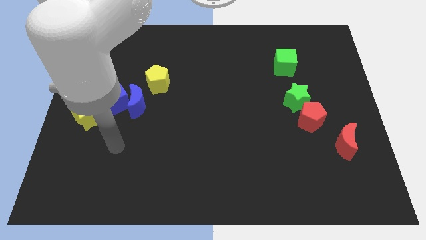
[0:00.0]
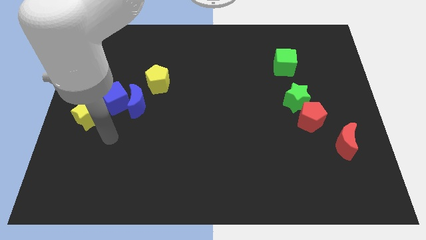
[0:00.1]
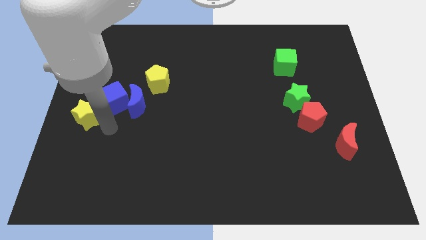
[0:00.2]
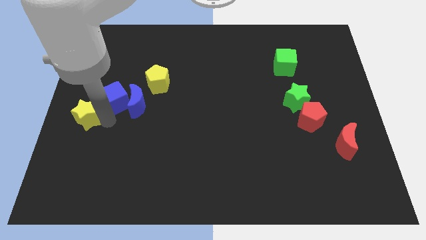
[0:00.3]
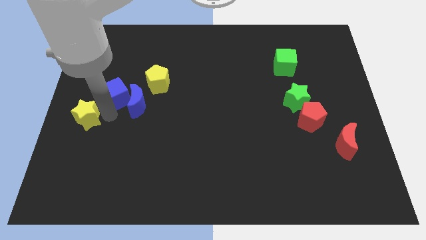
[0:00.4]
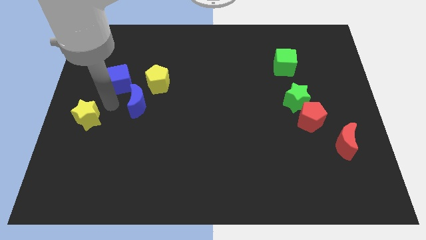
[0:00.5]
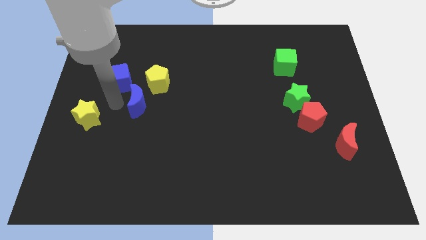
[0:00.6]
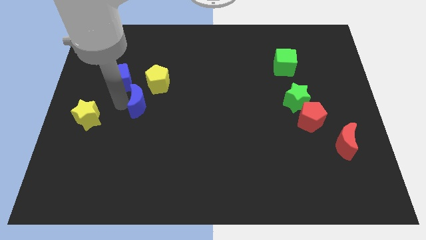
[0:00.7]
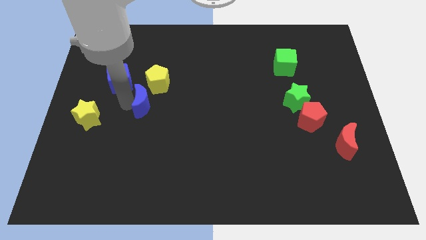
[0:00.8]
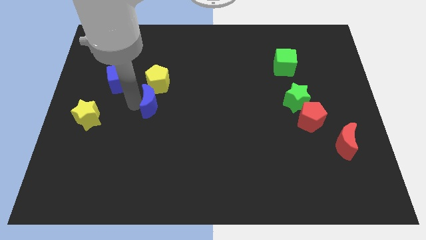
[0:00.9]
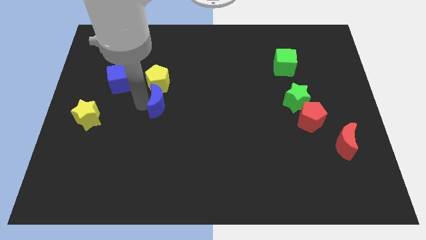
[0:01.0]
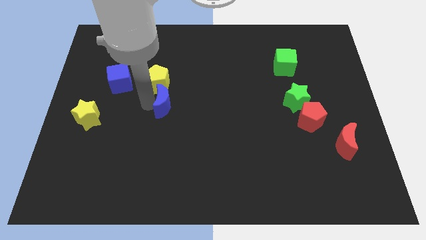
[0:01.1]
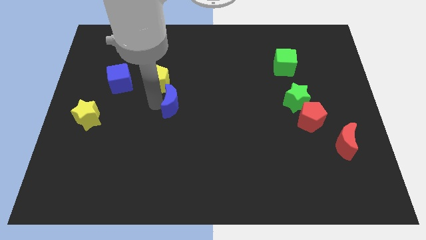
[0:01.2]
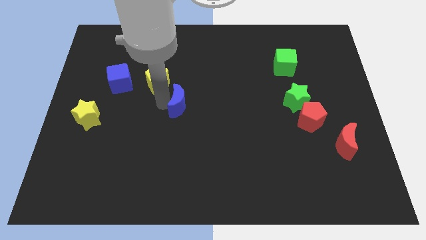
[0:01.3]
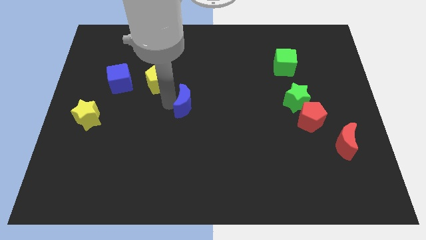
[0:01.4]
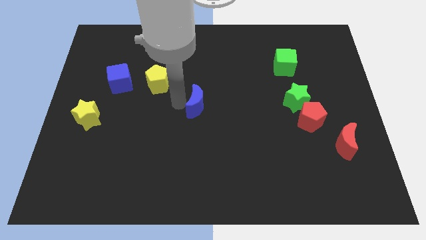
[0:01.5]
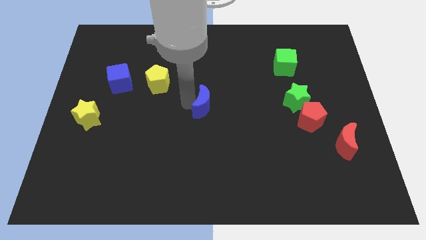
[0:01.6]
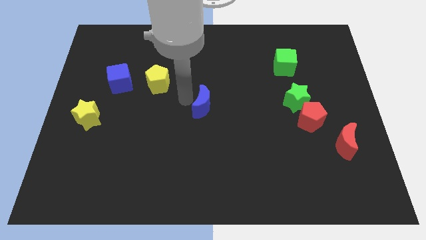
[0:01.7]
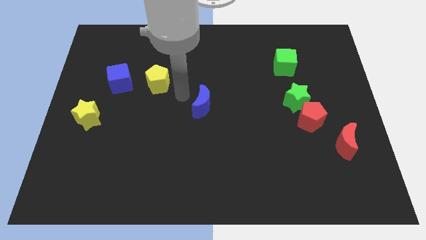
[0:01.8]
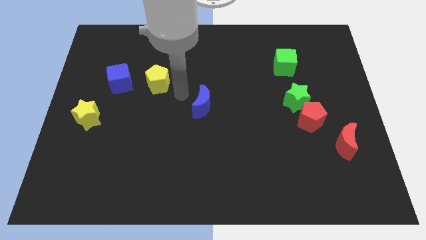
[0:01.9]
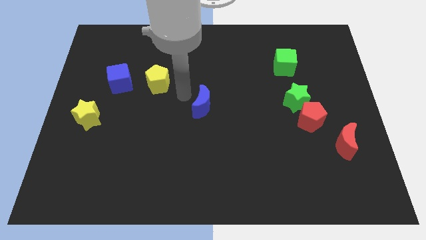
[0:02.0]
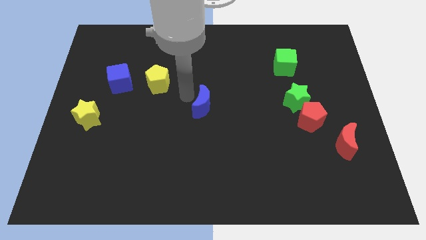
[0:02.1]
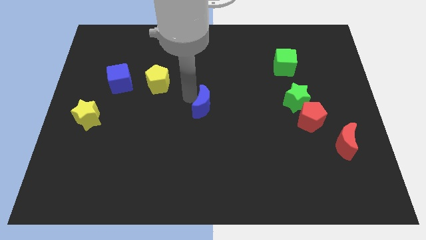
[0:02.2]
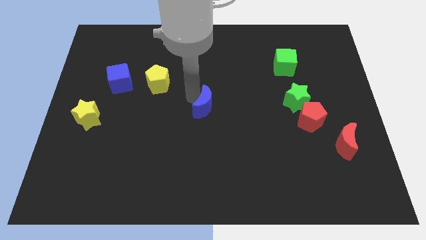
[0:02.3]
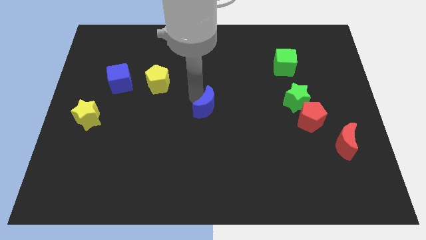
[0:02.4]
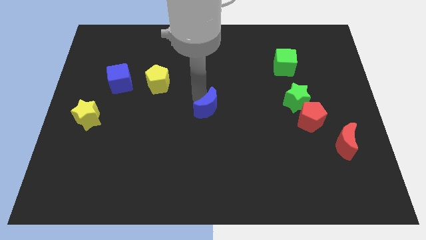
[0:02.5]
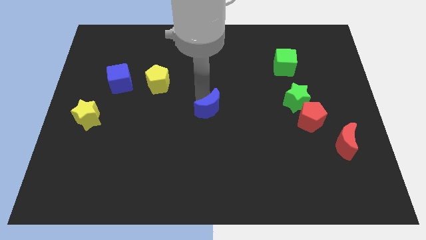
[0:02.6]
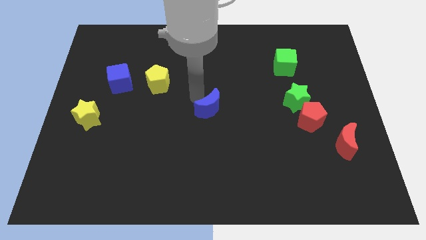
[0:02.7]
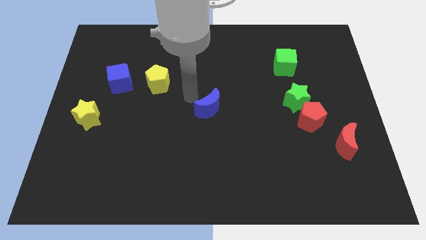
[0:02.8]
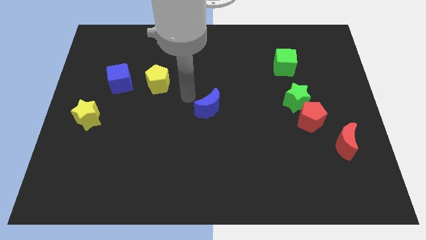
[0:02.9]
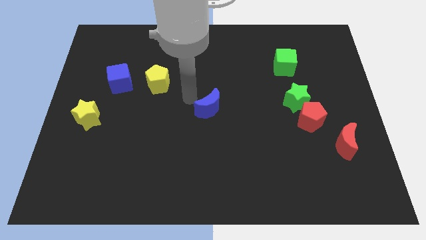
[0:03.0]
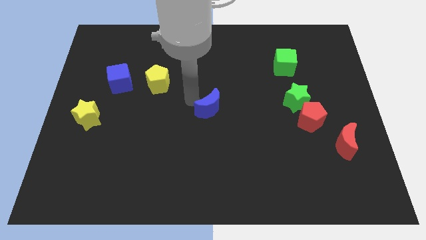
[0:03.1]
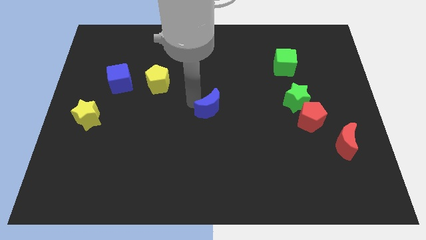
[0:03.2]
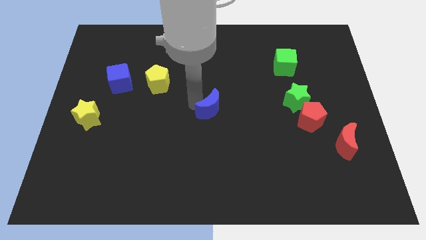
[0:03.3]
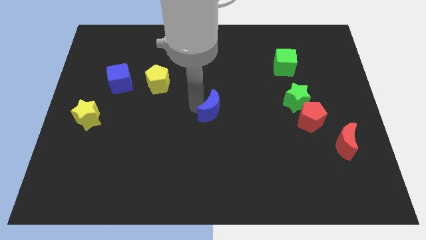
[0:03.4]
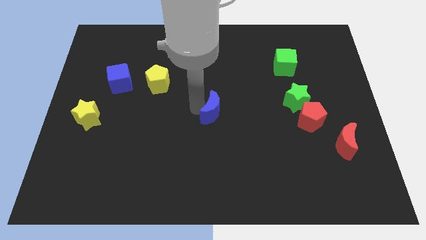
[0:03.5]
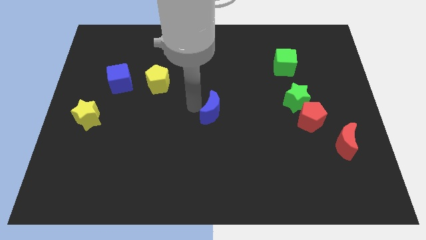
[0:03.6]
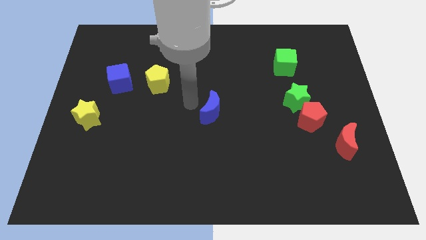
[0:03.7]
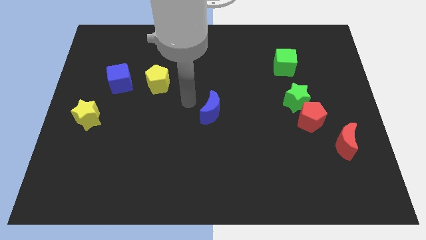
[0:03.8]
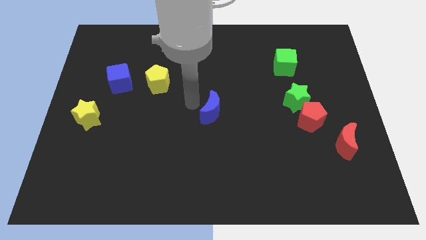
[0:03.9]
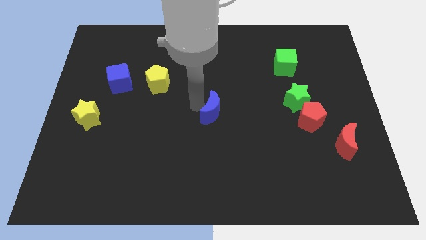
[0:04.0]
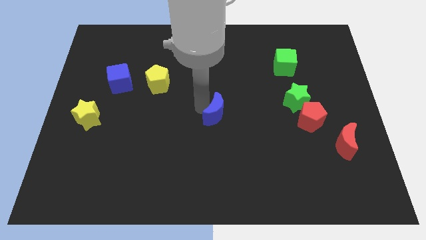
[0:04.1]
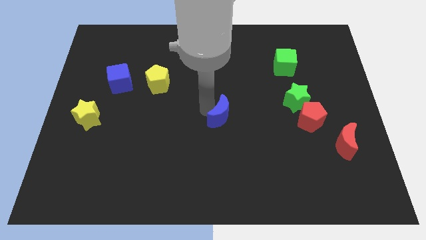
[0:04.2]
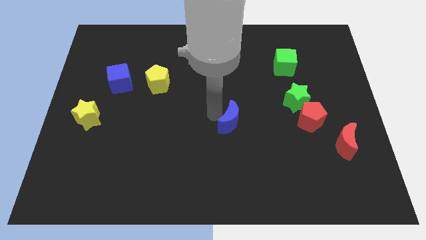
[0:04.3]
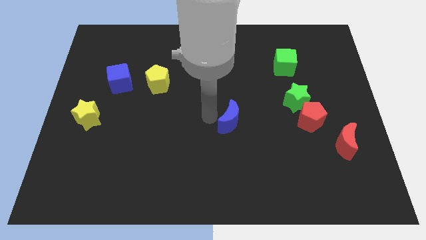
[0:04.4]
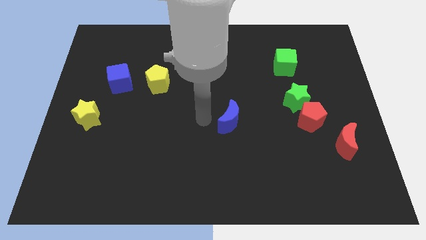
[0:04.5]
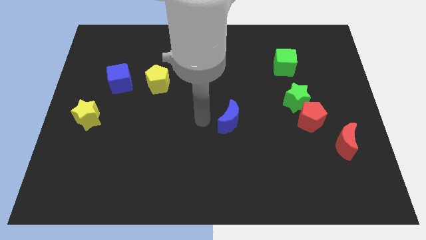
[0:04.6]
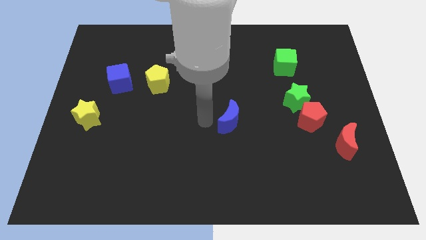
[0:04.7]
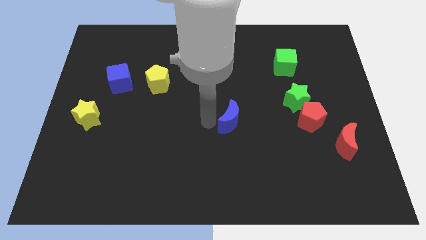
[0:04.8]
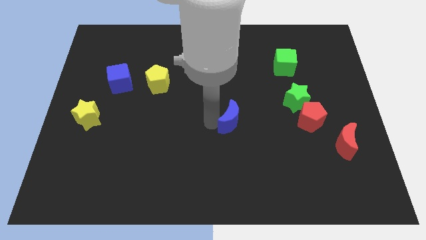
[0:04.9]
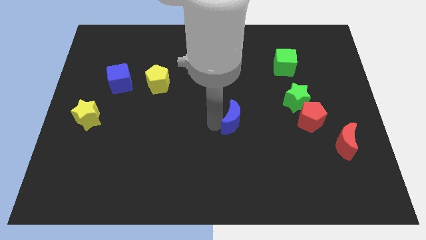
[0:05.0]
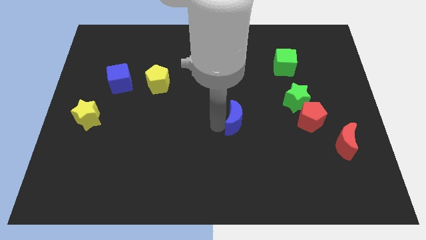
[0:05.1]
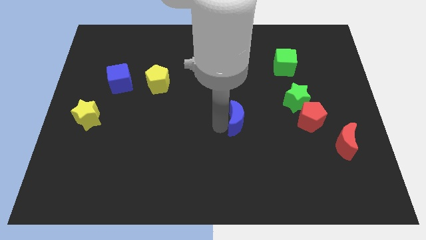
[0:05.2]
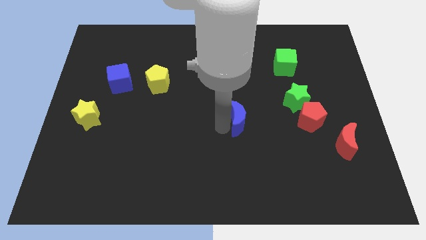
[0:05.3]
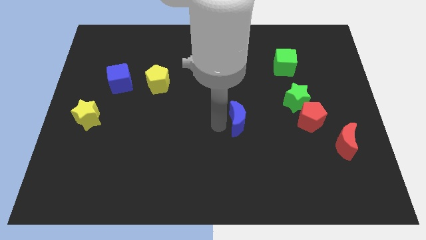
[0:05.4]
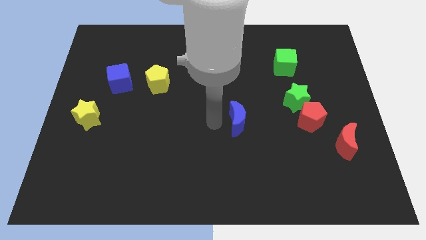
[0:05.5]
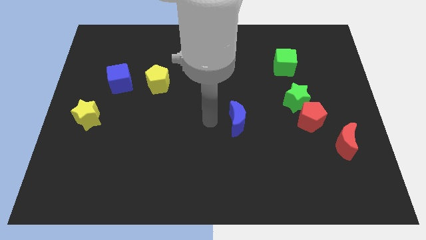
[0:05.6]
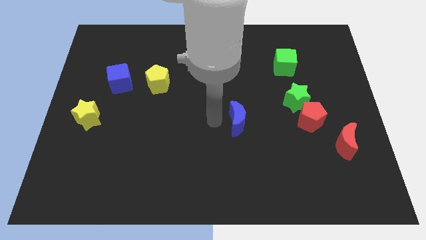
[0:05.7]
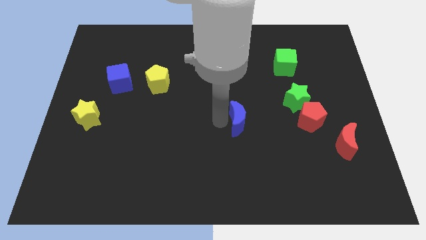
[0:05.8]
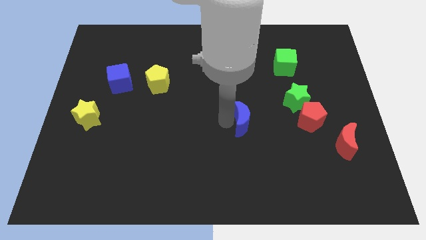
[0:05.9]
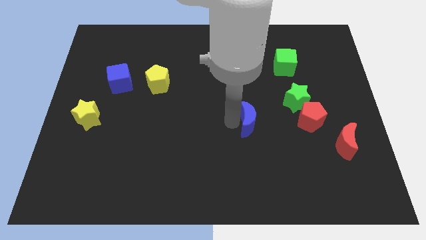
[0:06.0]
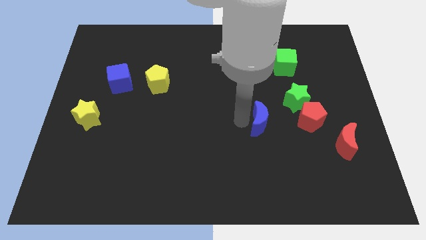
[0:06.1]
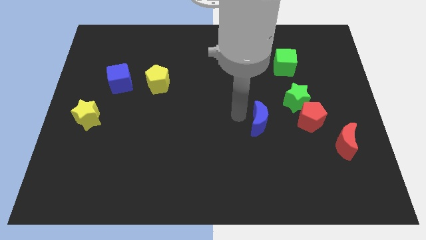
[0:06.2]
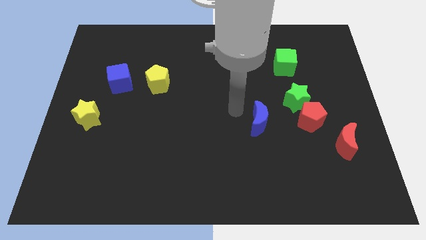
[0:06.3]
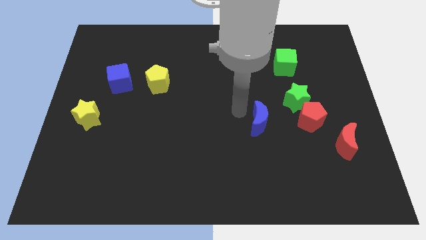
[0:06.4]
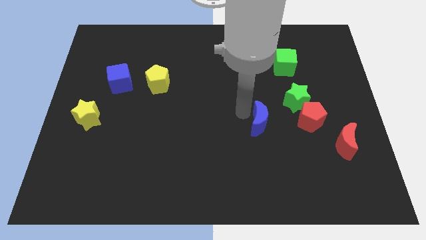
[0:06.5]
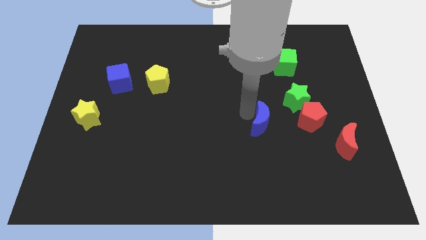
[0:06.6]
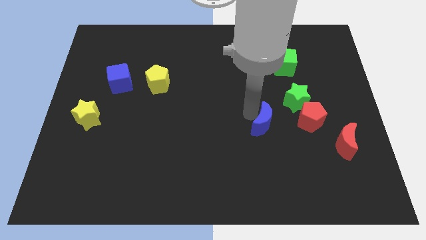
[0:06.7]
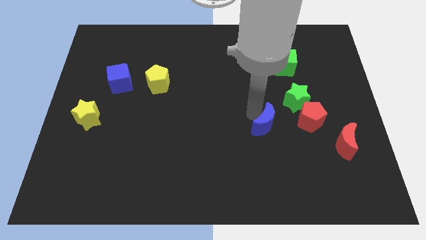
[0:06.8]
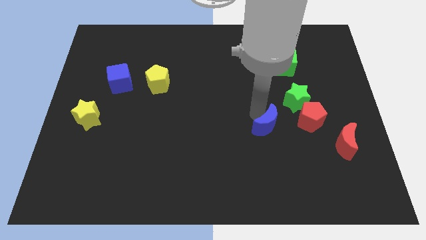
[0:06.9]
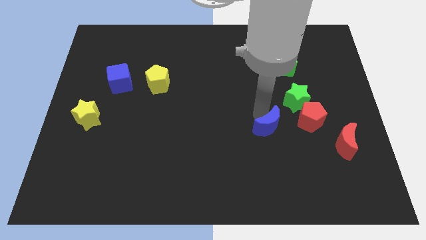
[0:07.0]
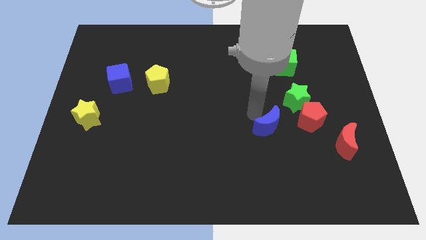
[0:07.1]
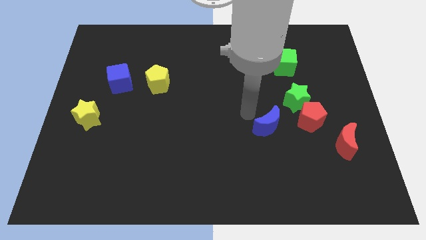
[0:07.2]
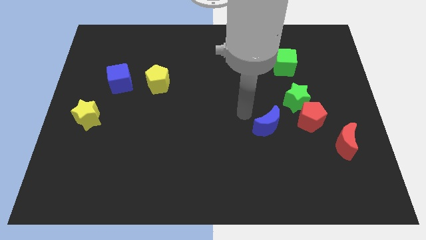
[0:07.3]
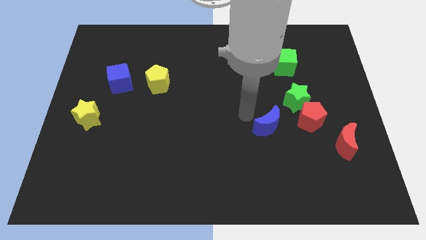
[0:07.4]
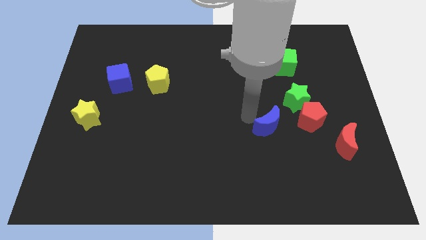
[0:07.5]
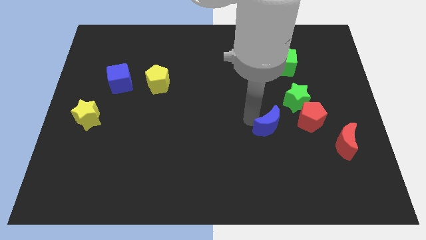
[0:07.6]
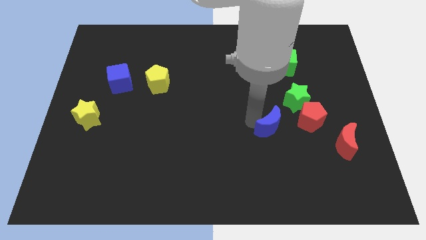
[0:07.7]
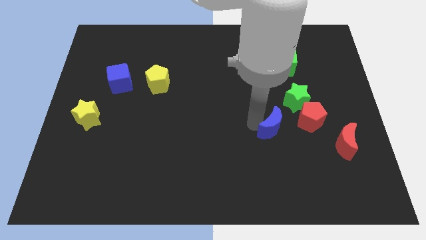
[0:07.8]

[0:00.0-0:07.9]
put the blue moon to the bottom left of the red pentagon
